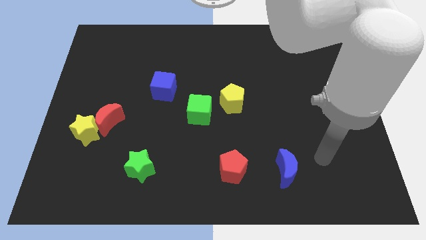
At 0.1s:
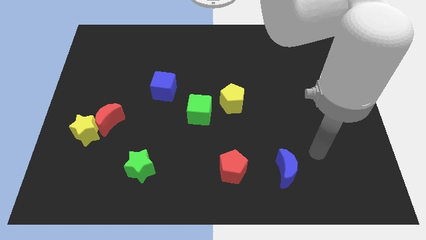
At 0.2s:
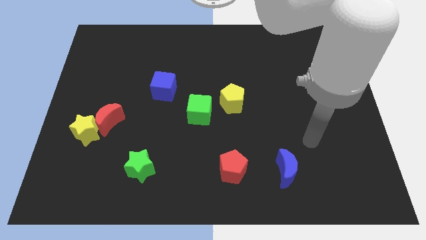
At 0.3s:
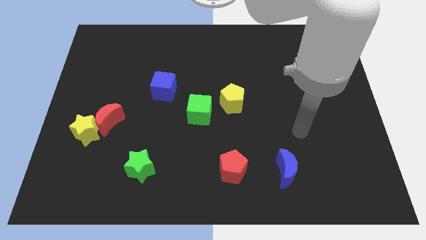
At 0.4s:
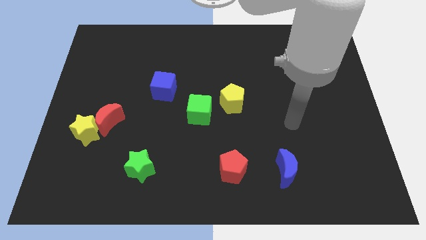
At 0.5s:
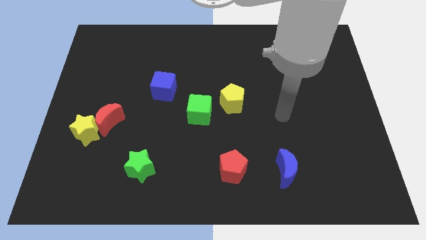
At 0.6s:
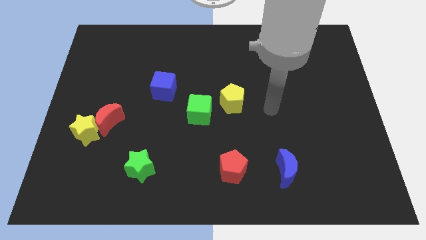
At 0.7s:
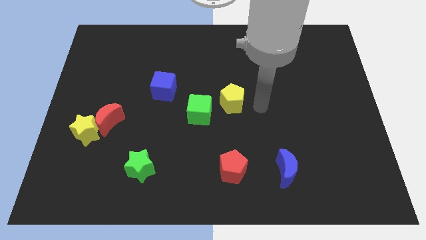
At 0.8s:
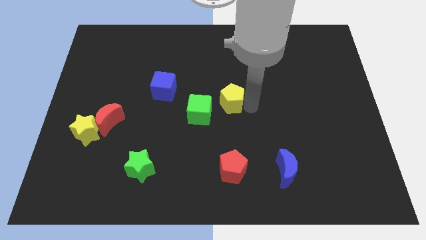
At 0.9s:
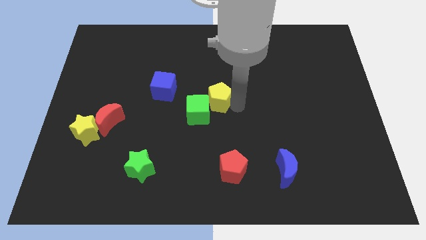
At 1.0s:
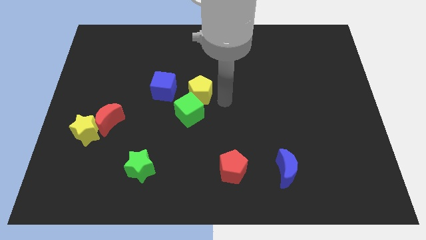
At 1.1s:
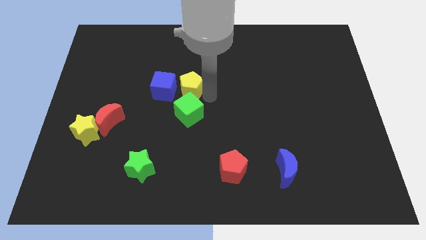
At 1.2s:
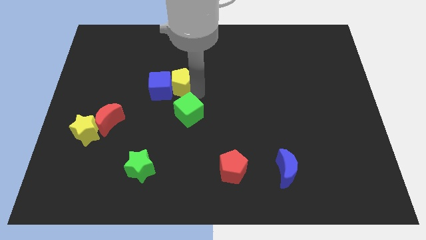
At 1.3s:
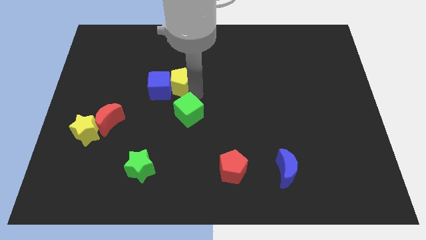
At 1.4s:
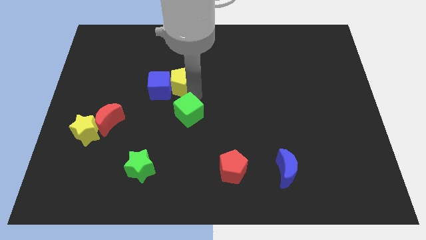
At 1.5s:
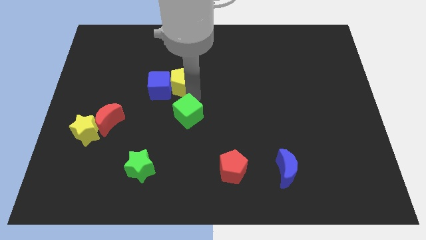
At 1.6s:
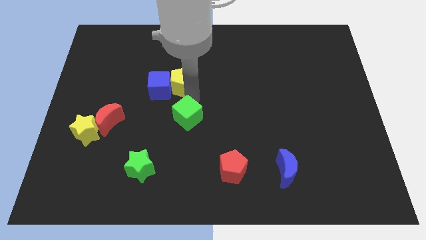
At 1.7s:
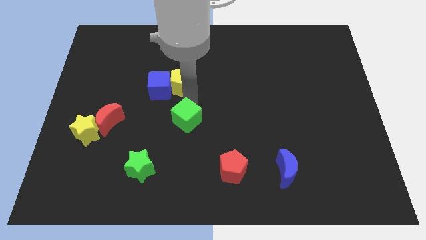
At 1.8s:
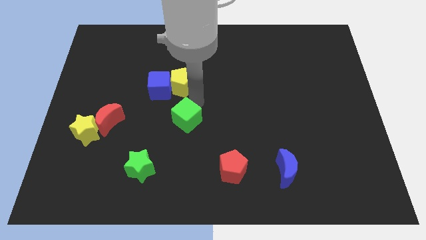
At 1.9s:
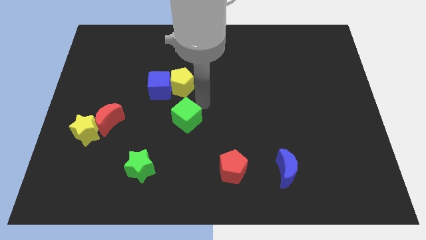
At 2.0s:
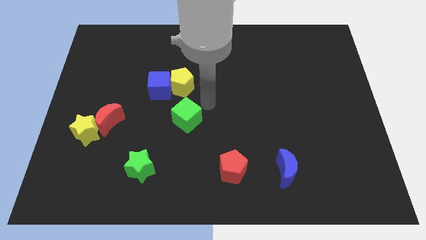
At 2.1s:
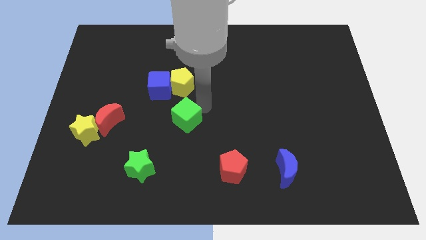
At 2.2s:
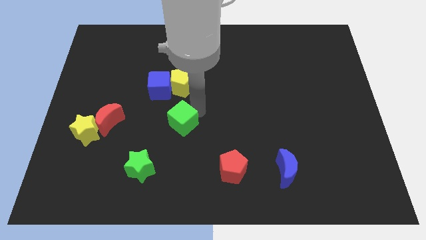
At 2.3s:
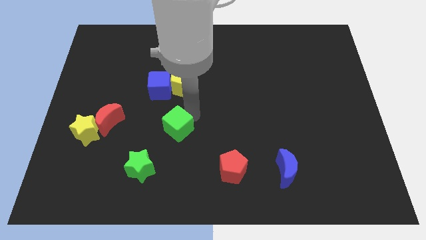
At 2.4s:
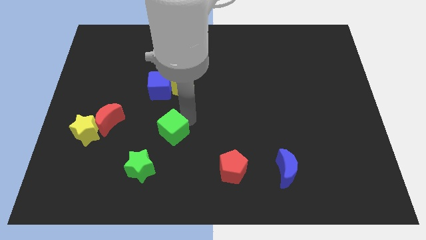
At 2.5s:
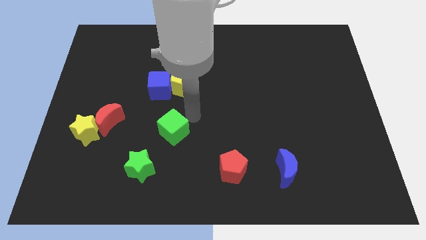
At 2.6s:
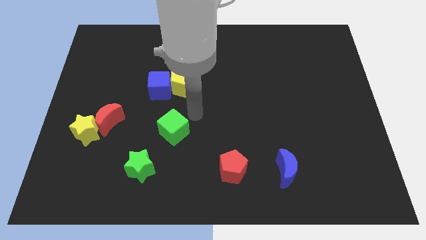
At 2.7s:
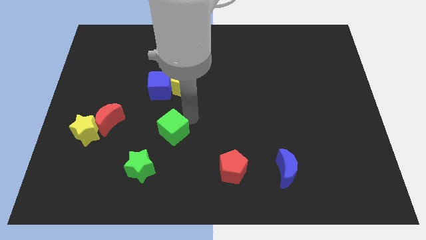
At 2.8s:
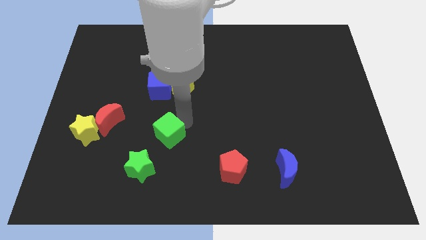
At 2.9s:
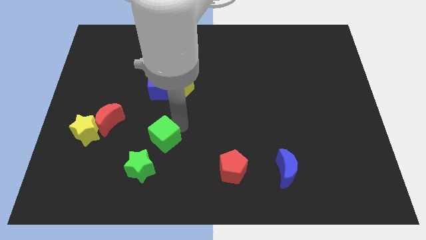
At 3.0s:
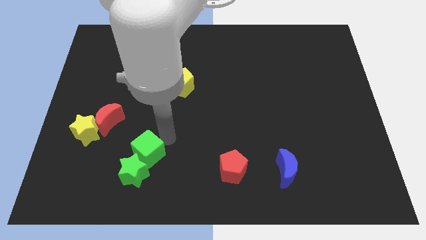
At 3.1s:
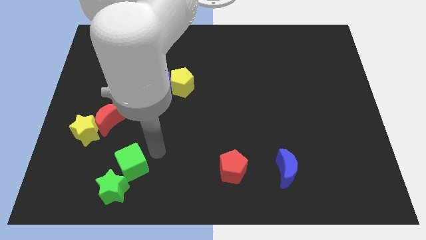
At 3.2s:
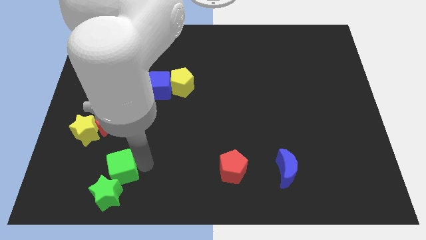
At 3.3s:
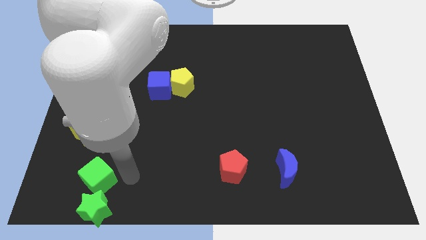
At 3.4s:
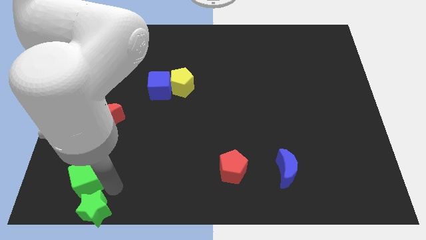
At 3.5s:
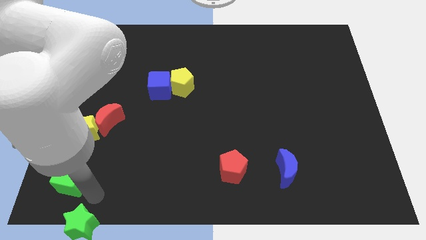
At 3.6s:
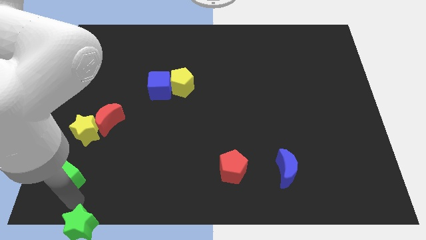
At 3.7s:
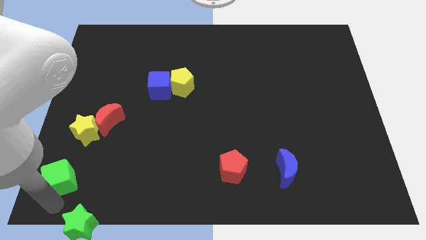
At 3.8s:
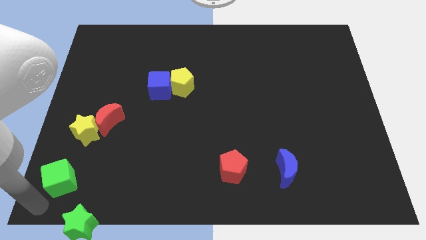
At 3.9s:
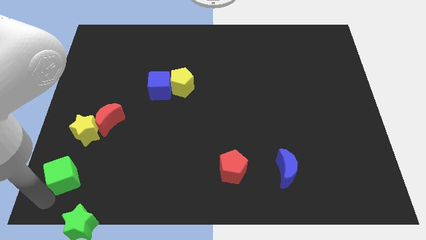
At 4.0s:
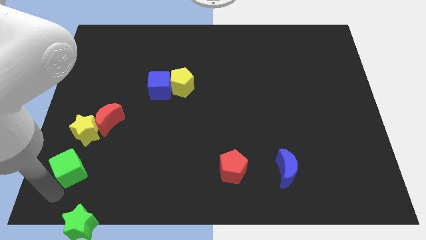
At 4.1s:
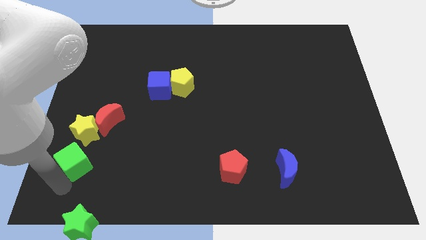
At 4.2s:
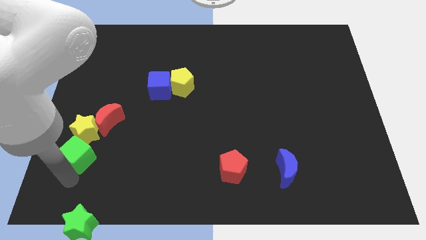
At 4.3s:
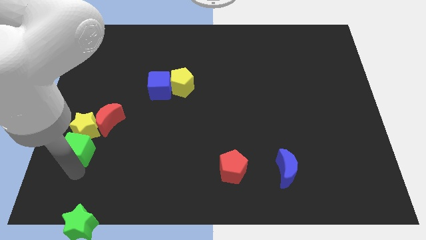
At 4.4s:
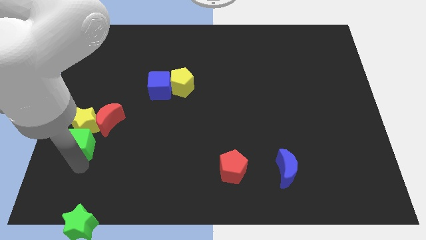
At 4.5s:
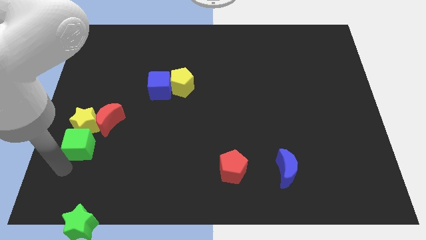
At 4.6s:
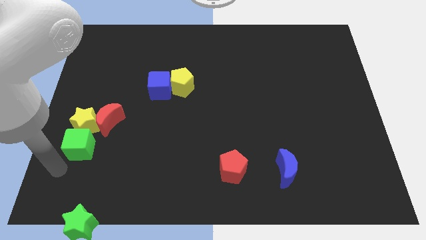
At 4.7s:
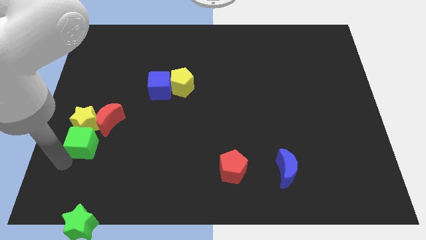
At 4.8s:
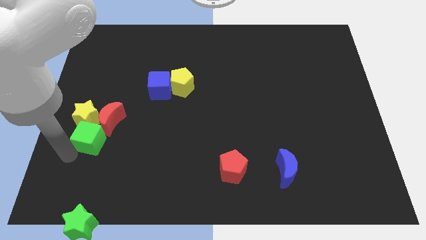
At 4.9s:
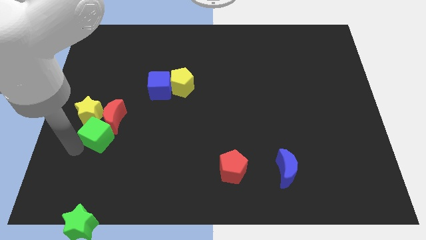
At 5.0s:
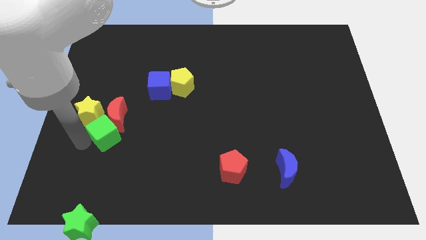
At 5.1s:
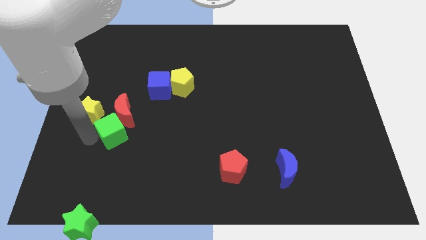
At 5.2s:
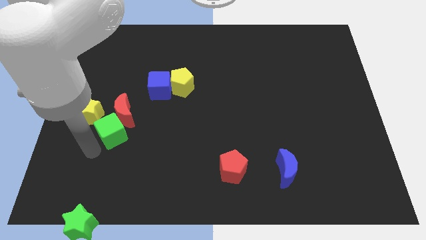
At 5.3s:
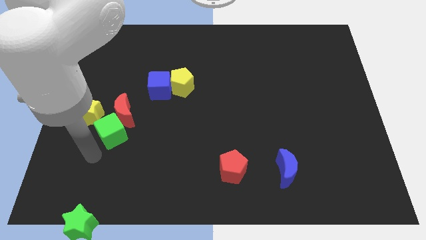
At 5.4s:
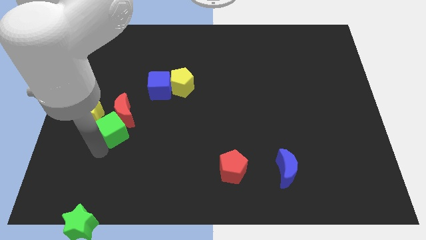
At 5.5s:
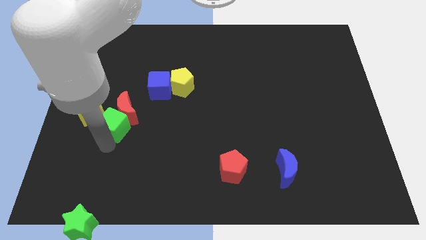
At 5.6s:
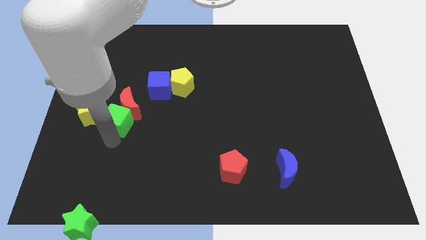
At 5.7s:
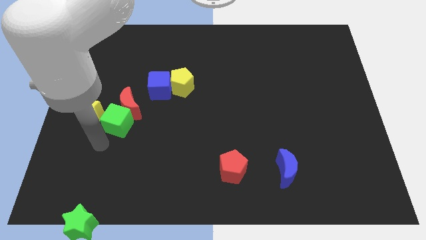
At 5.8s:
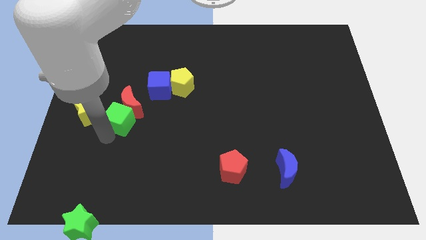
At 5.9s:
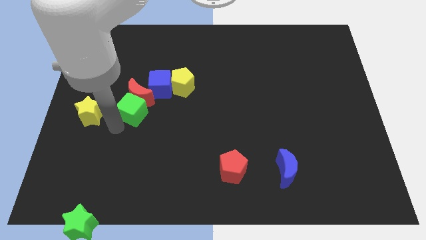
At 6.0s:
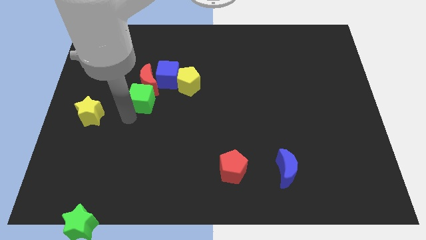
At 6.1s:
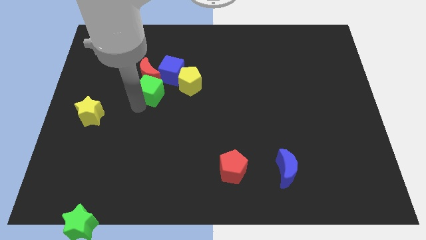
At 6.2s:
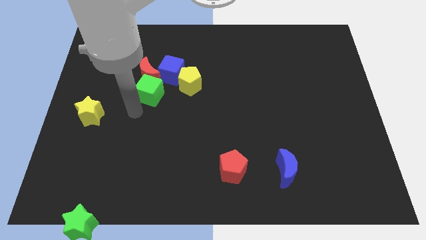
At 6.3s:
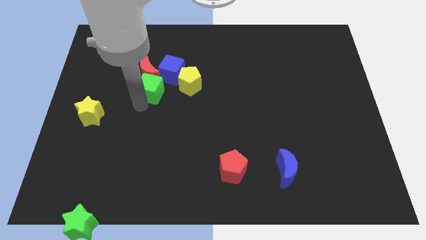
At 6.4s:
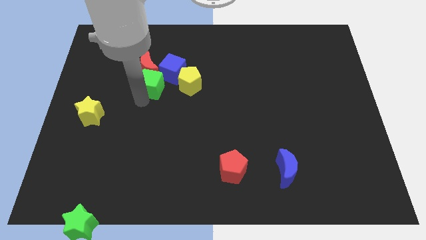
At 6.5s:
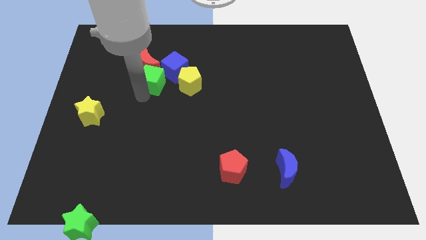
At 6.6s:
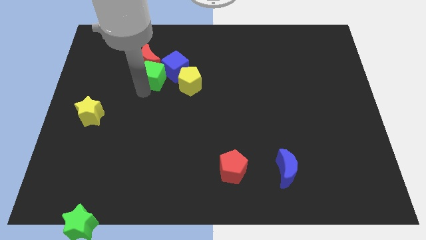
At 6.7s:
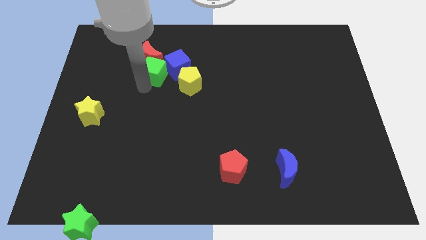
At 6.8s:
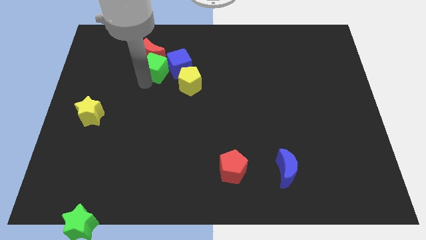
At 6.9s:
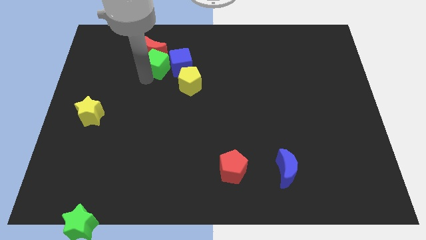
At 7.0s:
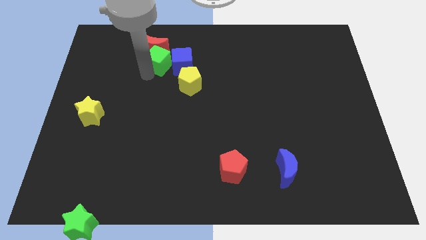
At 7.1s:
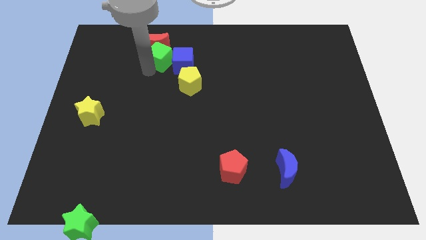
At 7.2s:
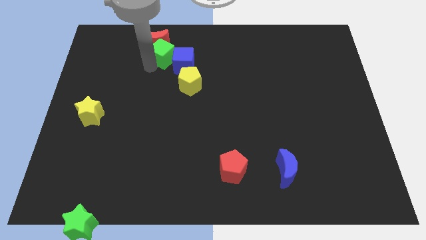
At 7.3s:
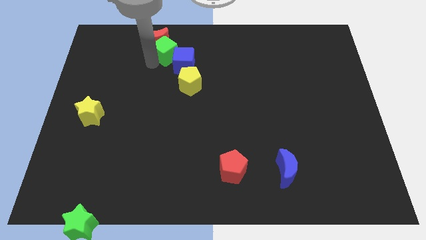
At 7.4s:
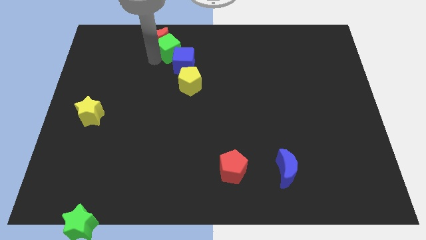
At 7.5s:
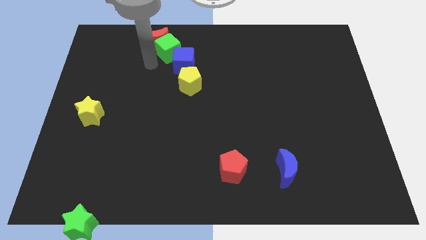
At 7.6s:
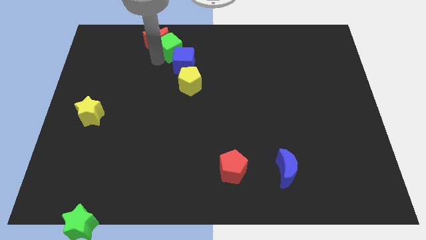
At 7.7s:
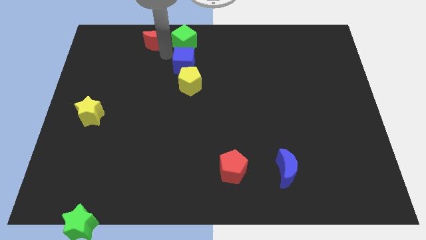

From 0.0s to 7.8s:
slide the green cube to the top side
